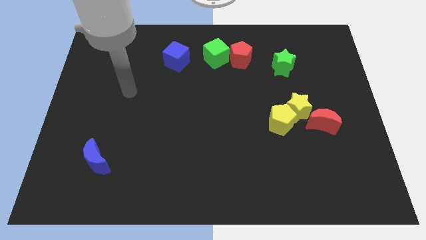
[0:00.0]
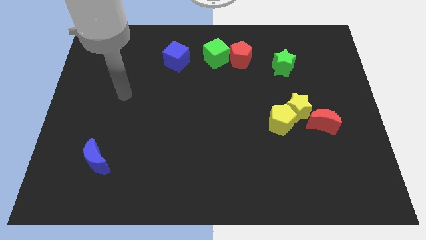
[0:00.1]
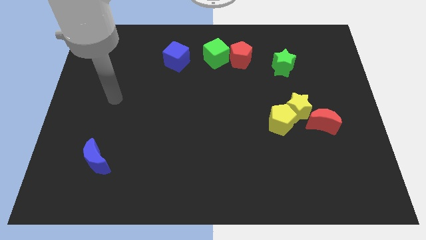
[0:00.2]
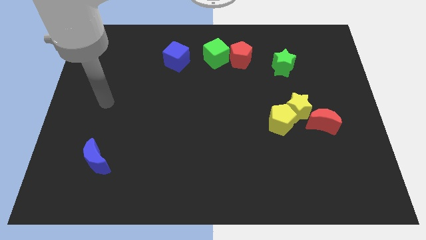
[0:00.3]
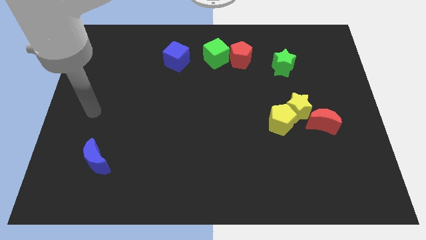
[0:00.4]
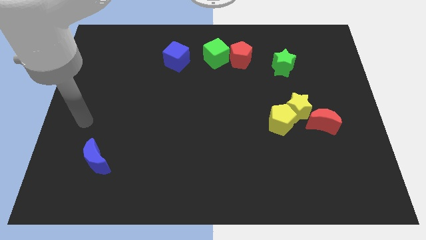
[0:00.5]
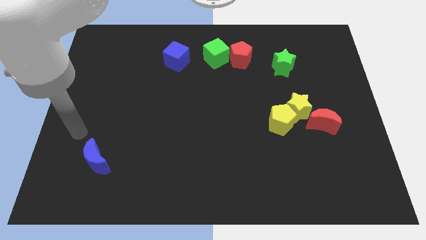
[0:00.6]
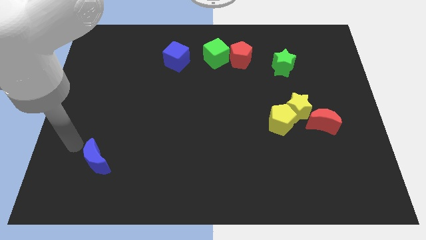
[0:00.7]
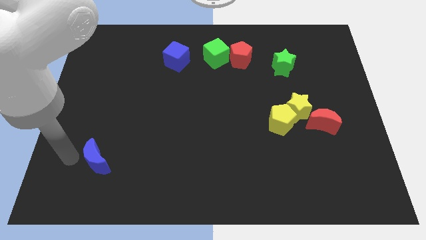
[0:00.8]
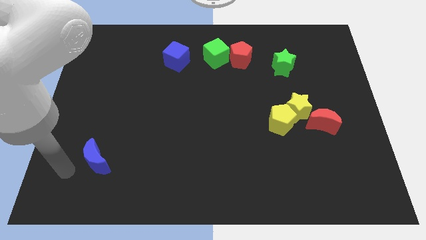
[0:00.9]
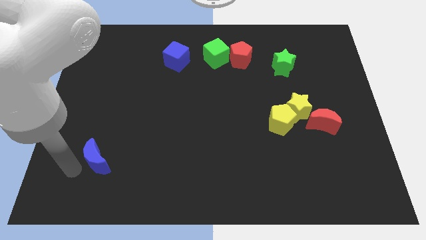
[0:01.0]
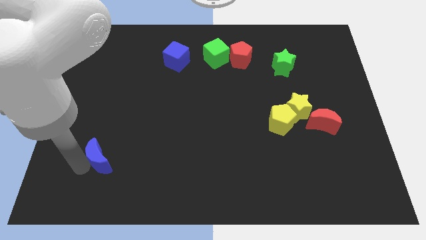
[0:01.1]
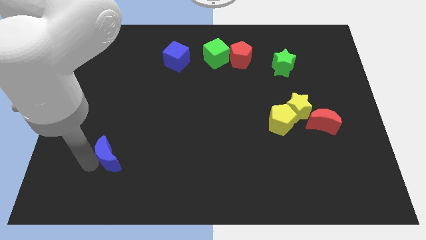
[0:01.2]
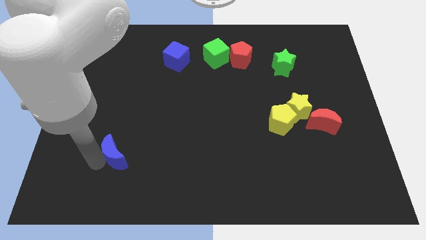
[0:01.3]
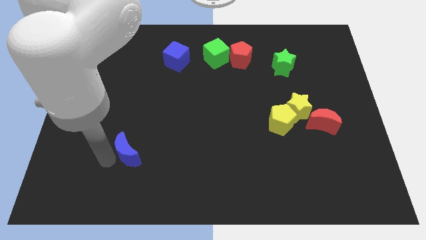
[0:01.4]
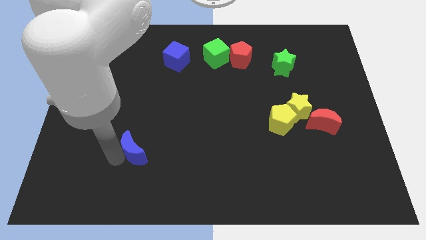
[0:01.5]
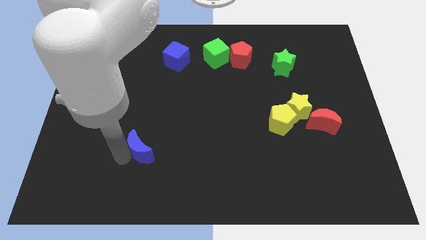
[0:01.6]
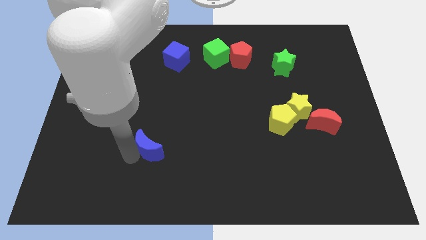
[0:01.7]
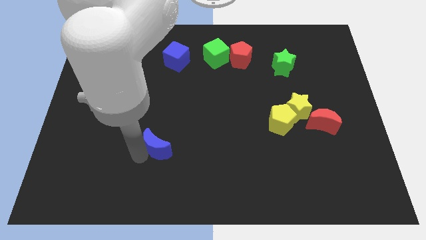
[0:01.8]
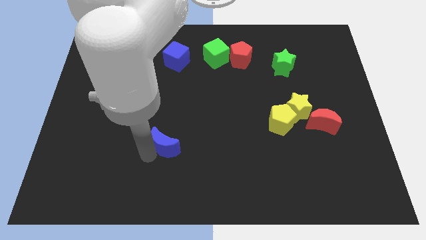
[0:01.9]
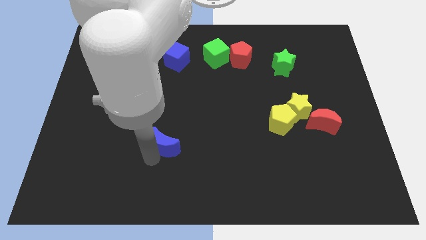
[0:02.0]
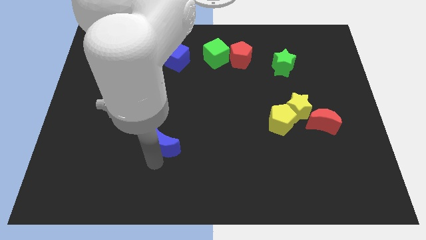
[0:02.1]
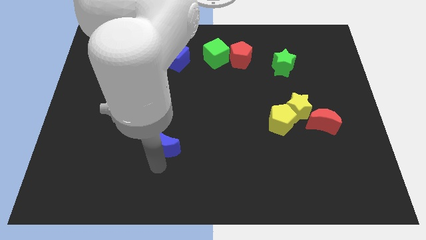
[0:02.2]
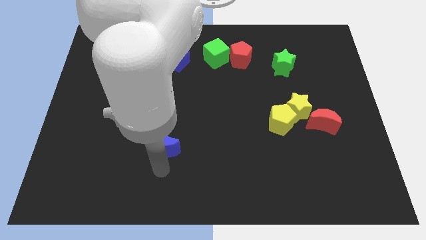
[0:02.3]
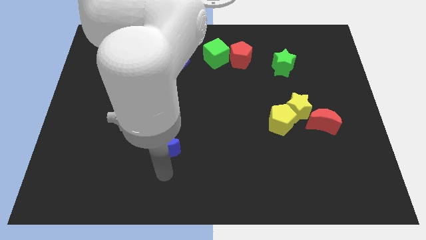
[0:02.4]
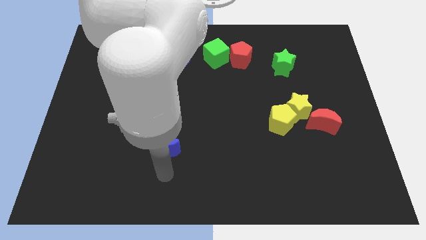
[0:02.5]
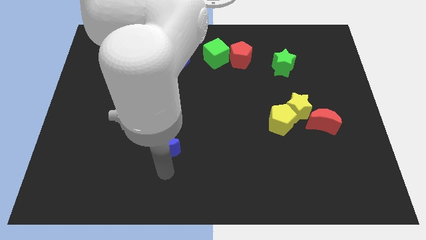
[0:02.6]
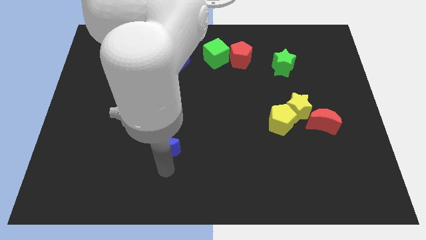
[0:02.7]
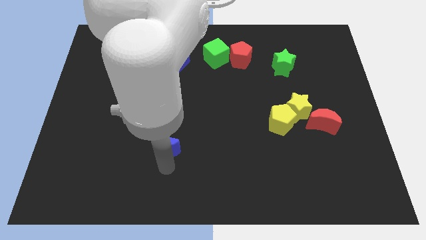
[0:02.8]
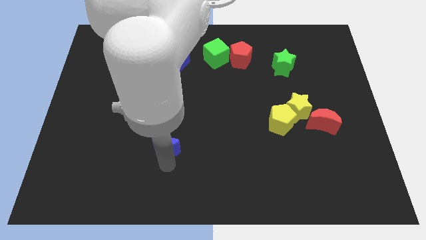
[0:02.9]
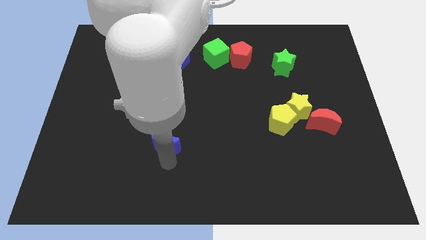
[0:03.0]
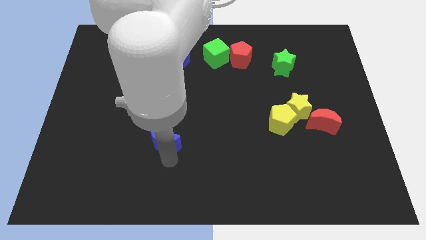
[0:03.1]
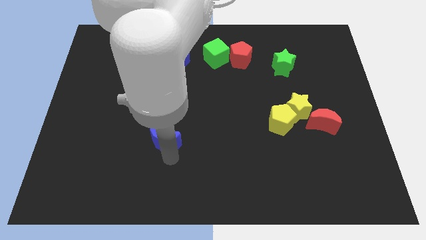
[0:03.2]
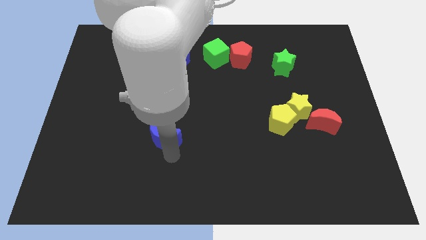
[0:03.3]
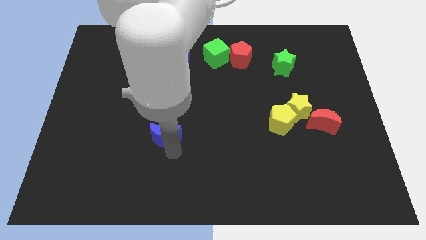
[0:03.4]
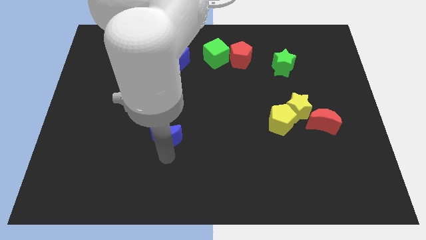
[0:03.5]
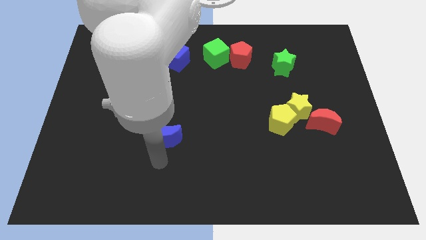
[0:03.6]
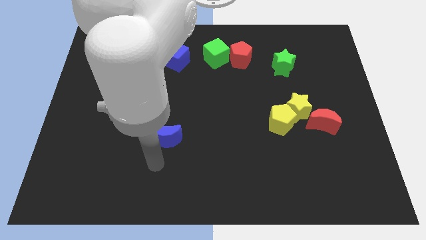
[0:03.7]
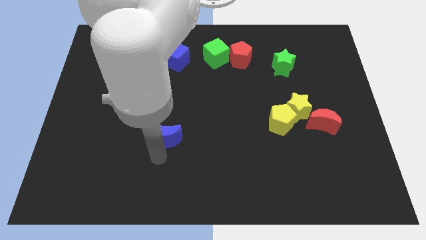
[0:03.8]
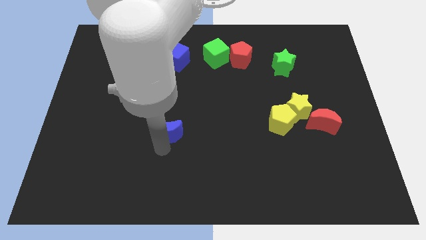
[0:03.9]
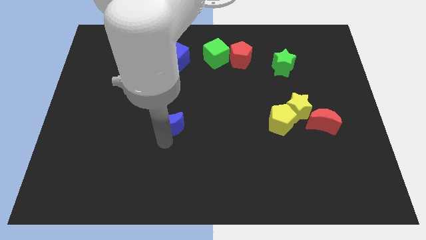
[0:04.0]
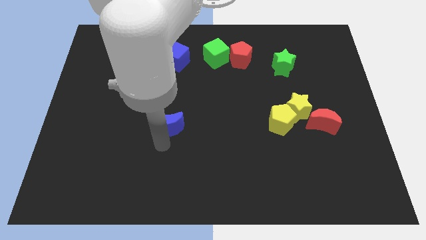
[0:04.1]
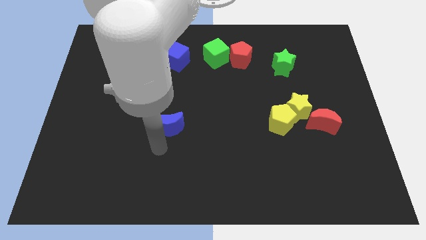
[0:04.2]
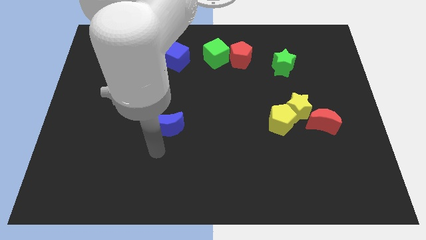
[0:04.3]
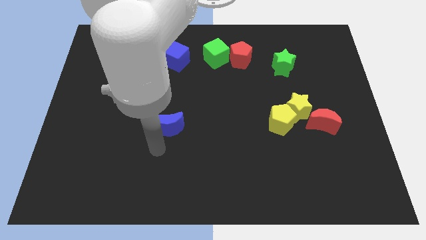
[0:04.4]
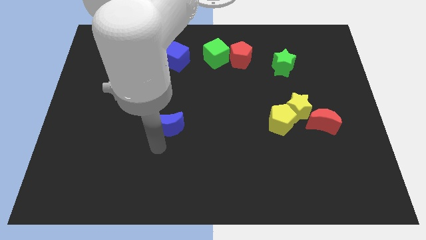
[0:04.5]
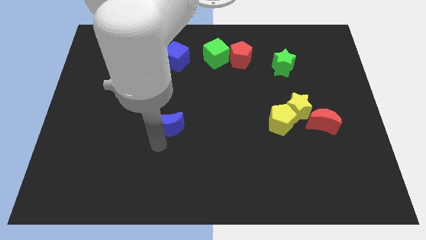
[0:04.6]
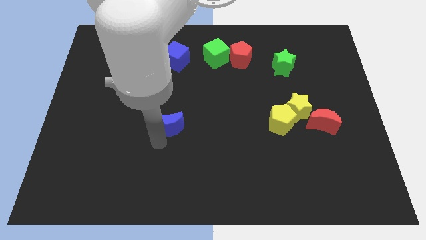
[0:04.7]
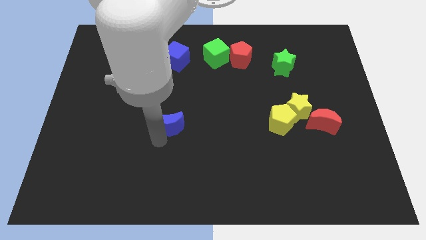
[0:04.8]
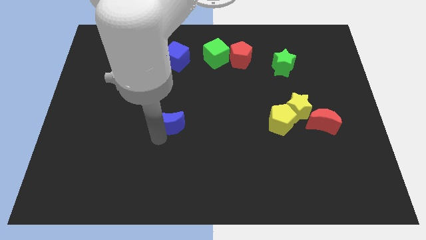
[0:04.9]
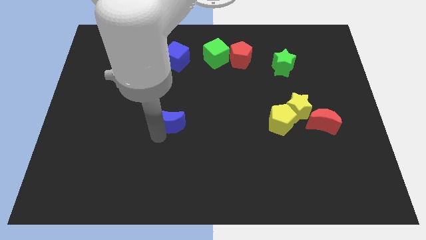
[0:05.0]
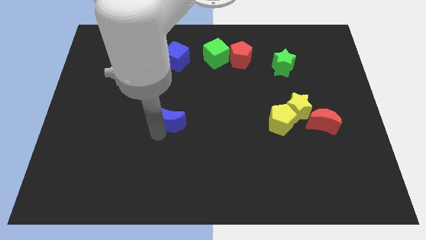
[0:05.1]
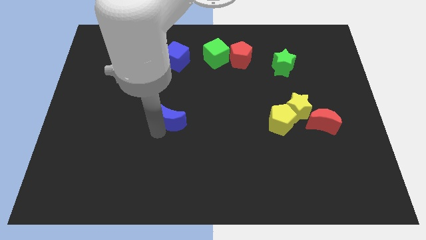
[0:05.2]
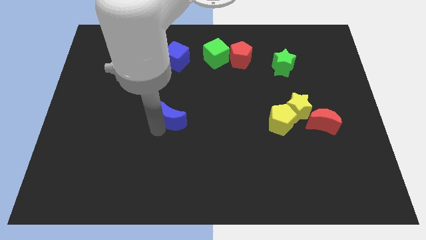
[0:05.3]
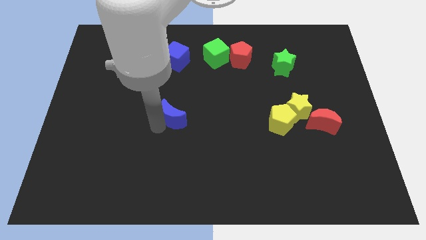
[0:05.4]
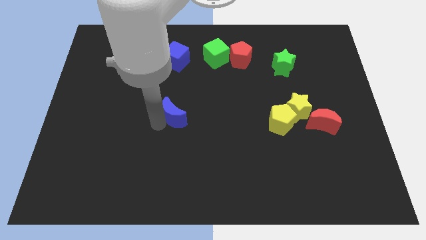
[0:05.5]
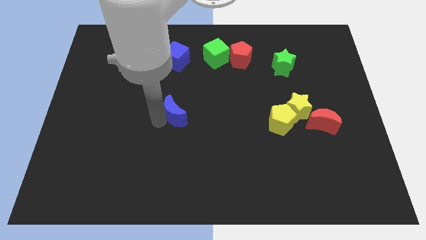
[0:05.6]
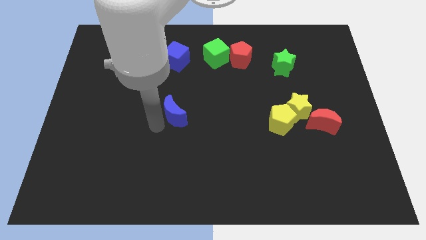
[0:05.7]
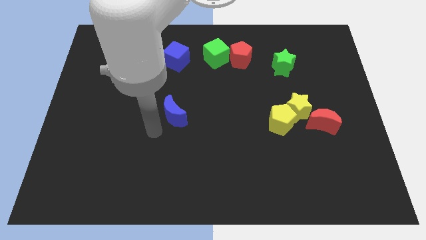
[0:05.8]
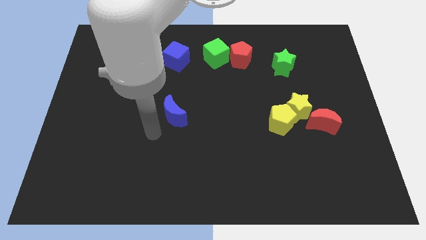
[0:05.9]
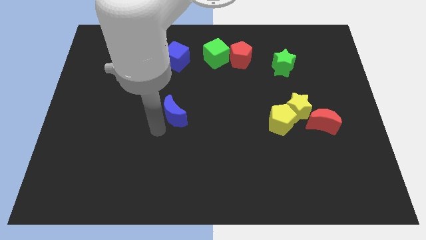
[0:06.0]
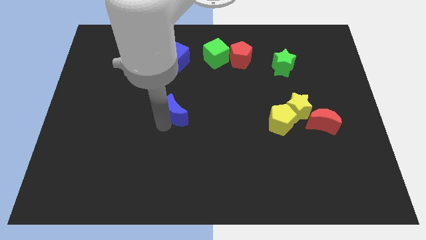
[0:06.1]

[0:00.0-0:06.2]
push the blue moon diagonally upwards and to the right

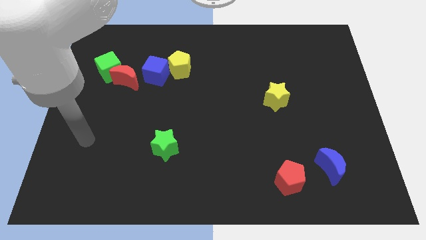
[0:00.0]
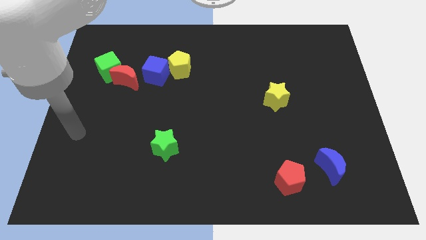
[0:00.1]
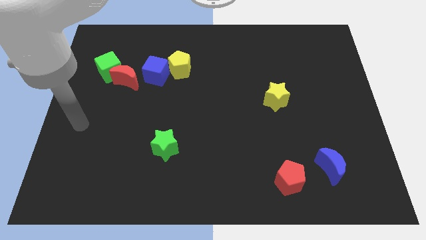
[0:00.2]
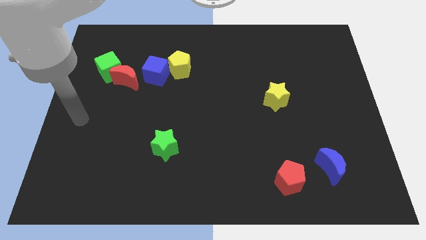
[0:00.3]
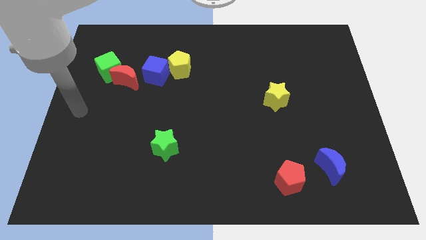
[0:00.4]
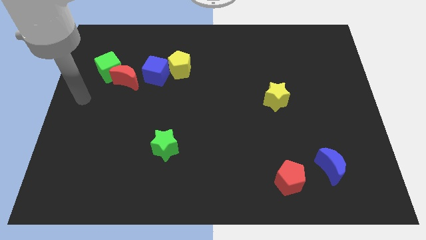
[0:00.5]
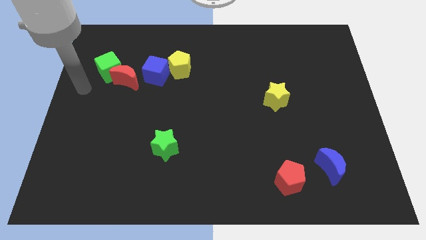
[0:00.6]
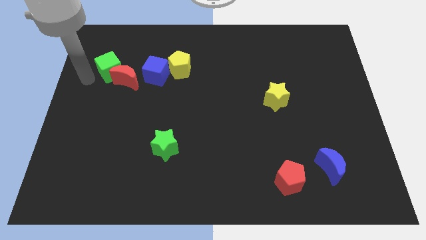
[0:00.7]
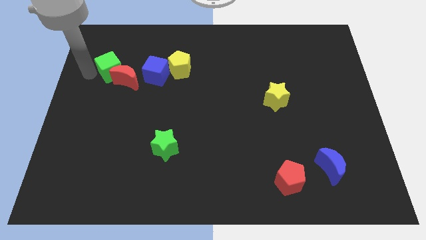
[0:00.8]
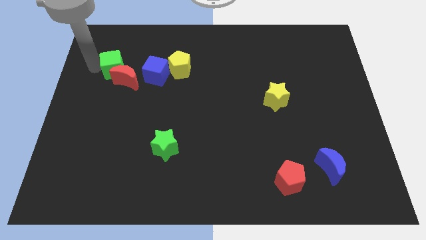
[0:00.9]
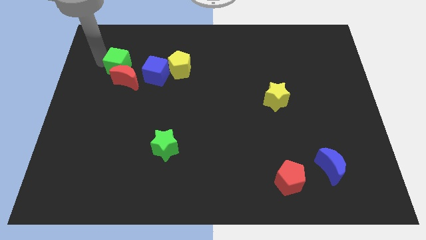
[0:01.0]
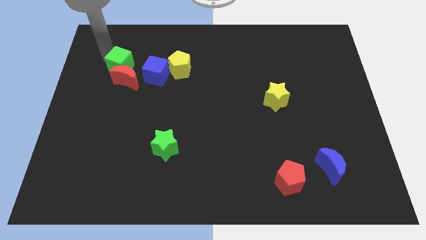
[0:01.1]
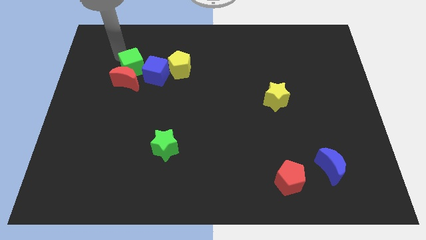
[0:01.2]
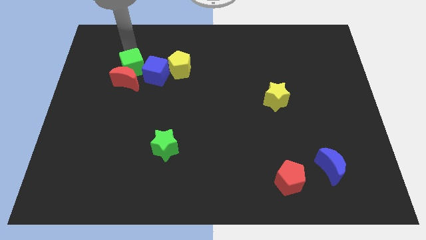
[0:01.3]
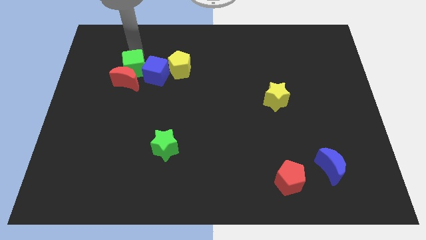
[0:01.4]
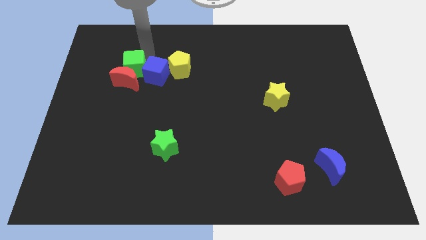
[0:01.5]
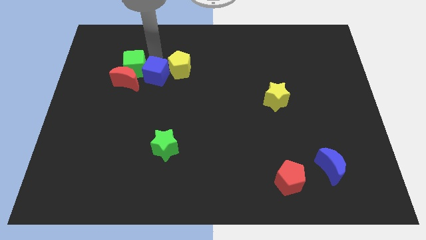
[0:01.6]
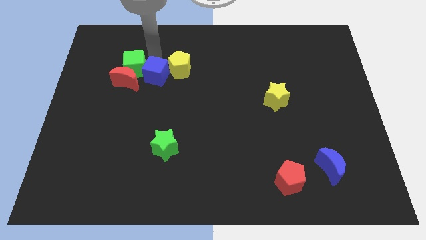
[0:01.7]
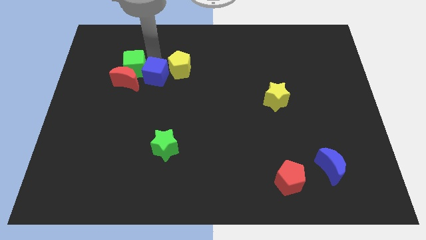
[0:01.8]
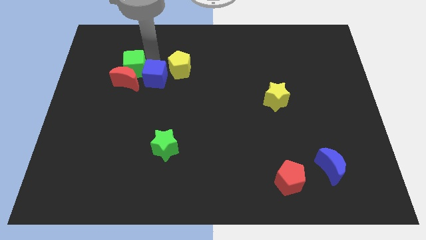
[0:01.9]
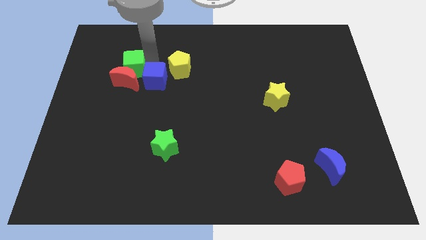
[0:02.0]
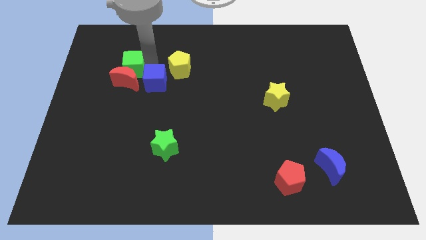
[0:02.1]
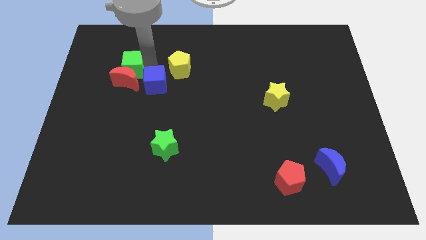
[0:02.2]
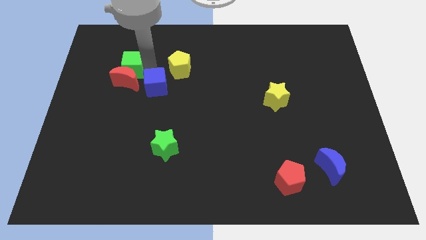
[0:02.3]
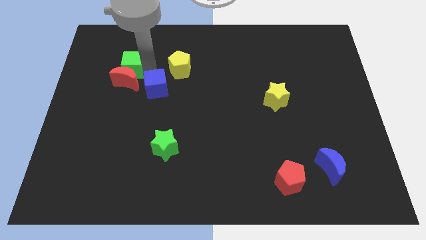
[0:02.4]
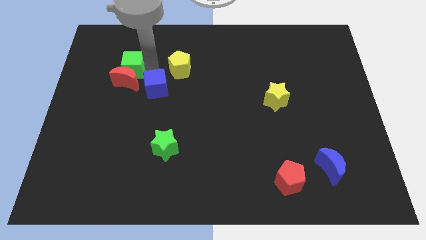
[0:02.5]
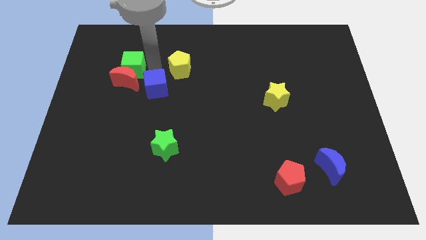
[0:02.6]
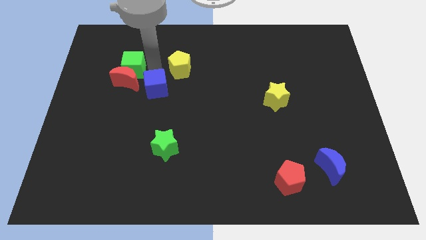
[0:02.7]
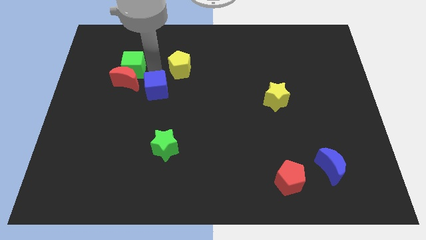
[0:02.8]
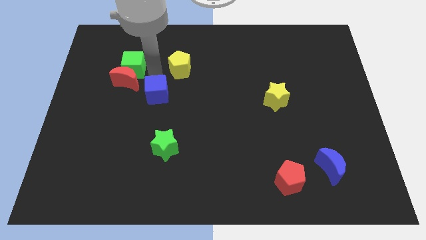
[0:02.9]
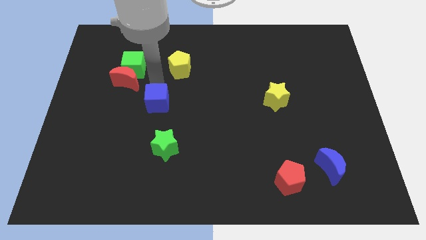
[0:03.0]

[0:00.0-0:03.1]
slide the blue cube downwards a little
